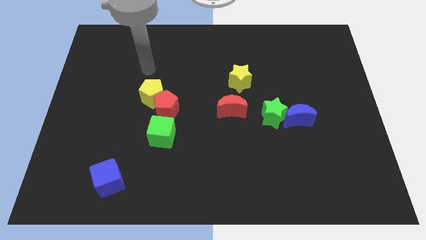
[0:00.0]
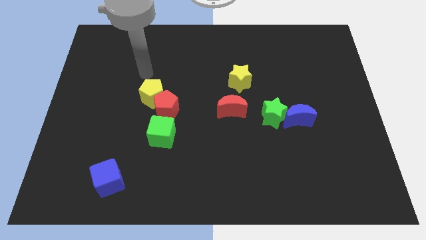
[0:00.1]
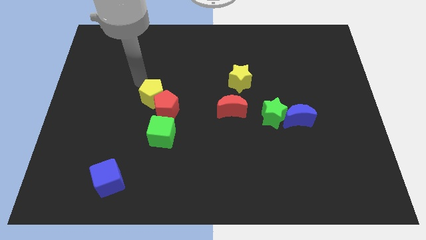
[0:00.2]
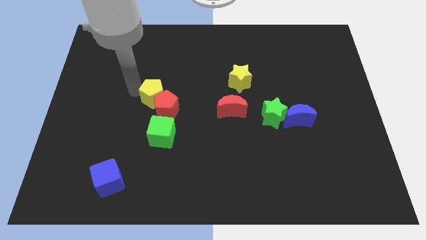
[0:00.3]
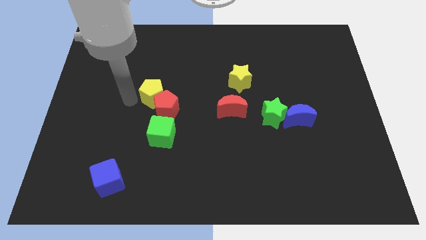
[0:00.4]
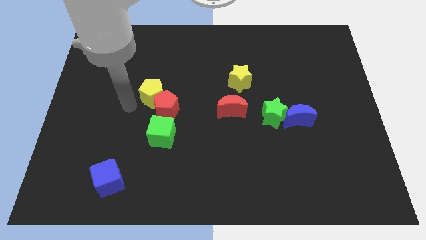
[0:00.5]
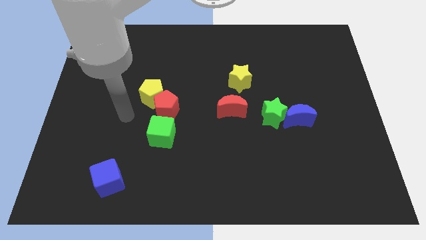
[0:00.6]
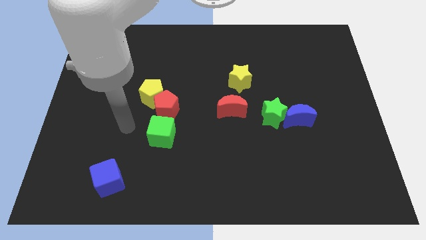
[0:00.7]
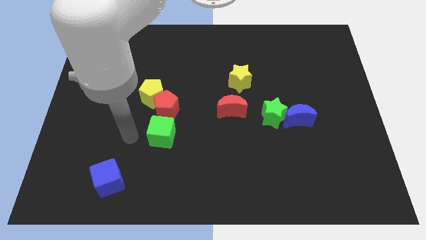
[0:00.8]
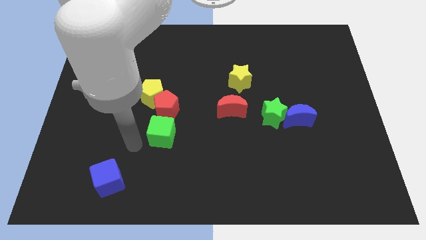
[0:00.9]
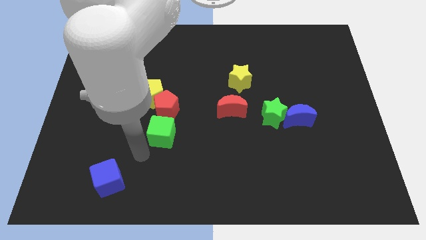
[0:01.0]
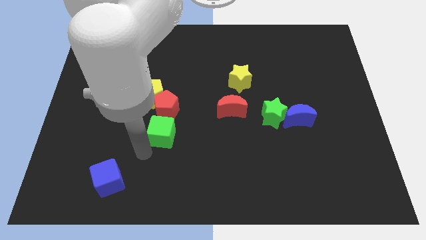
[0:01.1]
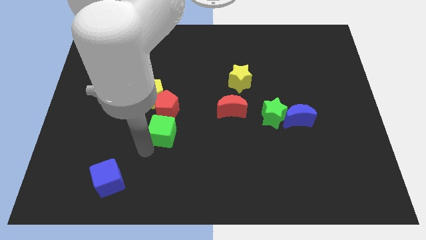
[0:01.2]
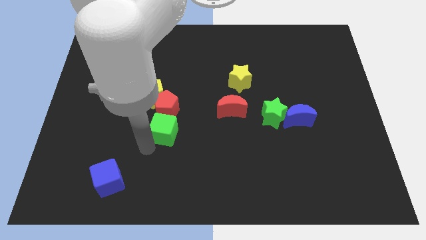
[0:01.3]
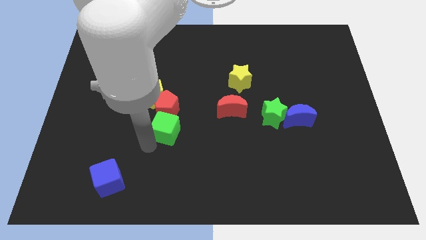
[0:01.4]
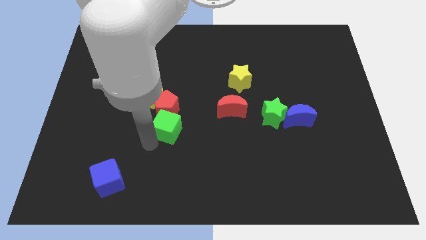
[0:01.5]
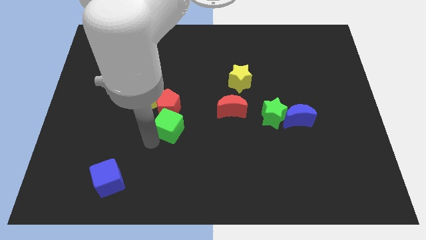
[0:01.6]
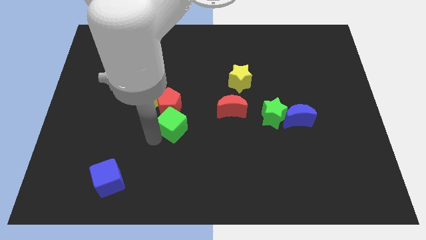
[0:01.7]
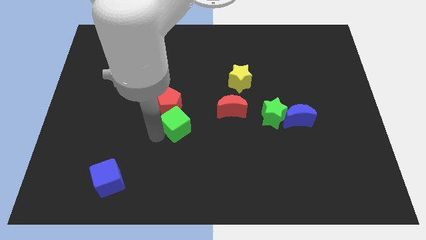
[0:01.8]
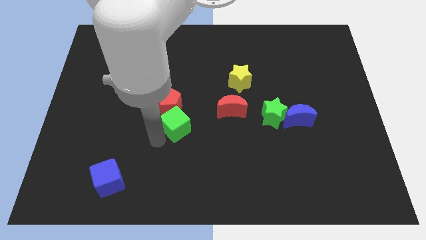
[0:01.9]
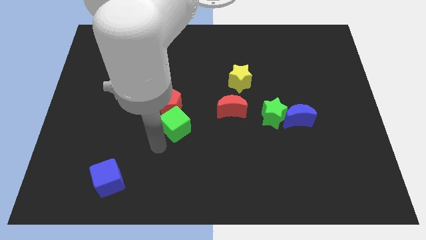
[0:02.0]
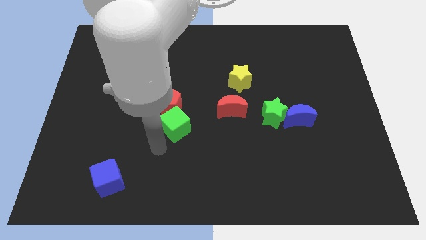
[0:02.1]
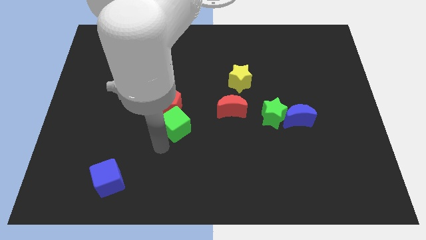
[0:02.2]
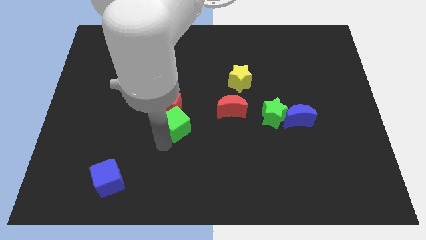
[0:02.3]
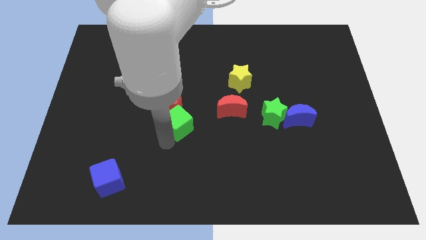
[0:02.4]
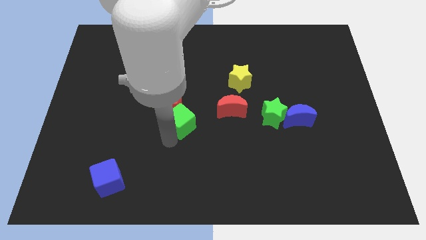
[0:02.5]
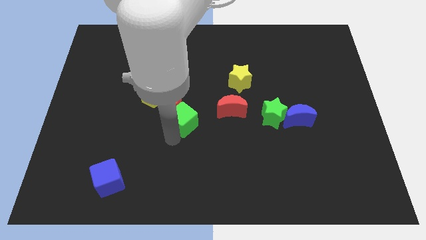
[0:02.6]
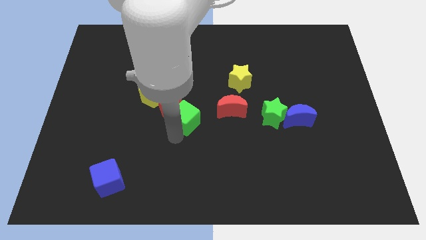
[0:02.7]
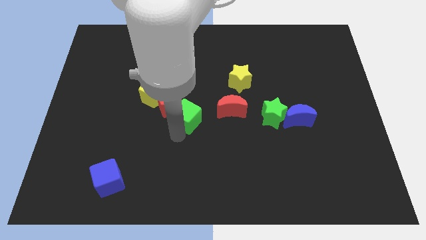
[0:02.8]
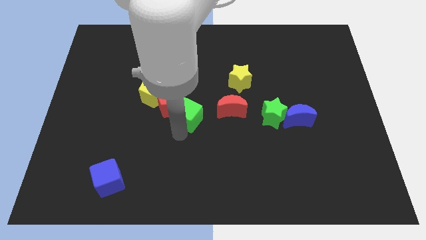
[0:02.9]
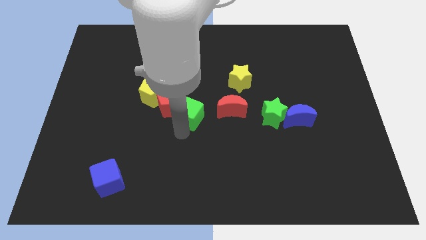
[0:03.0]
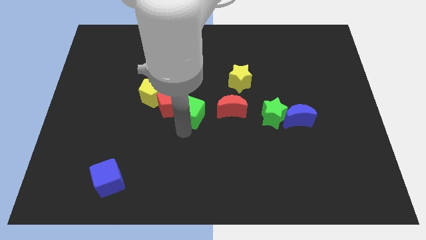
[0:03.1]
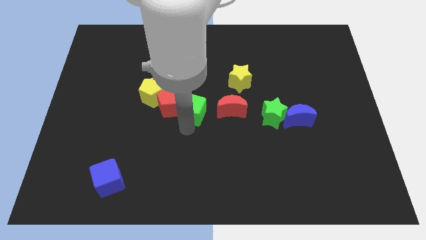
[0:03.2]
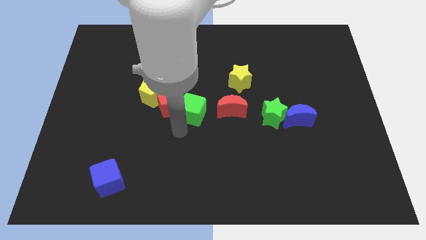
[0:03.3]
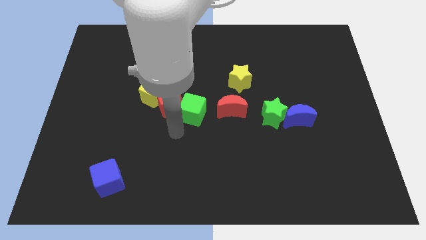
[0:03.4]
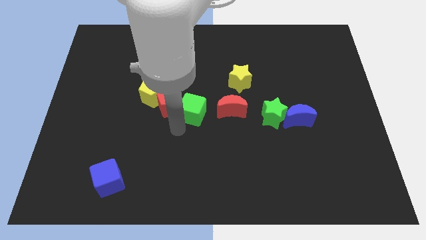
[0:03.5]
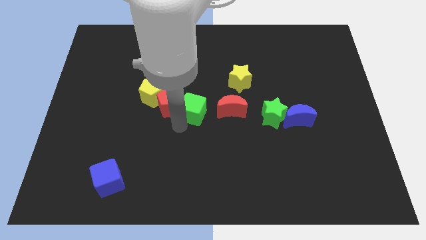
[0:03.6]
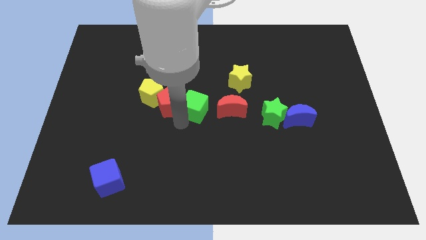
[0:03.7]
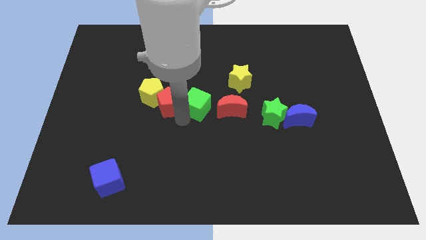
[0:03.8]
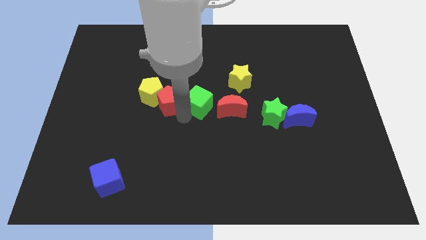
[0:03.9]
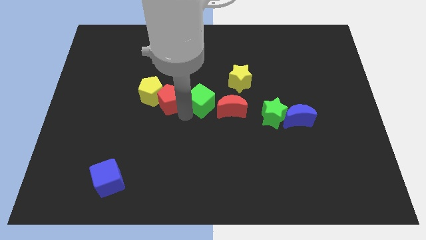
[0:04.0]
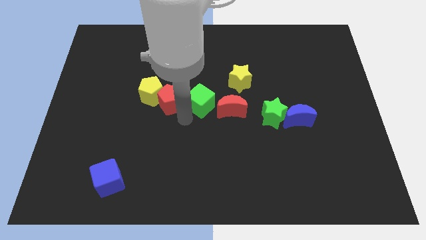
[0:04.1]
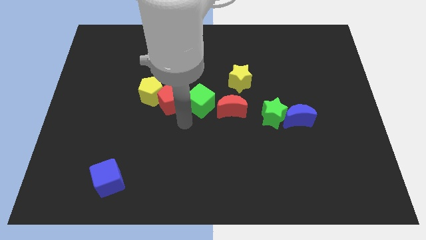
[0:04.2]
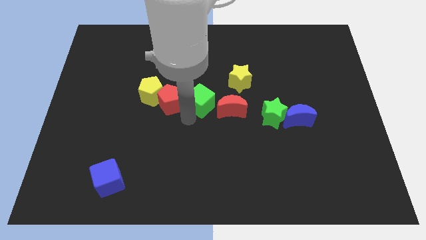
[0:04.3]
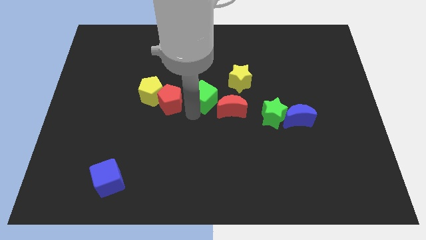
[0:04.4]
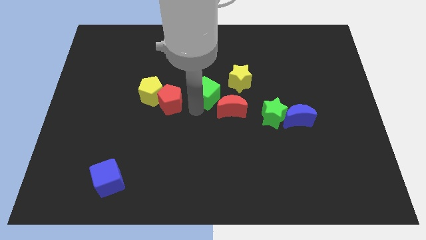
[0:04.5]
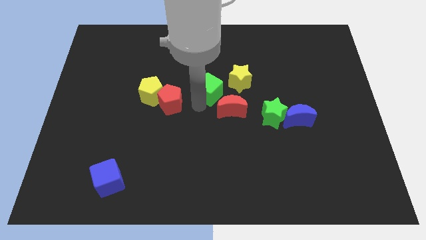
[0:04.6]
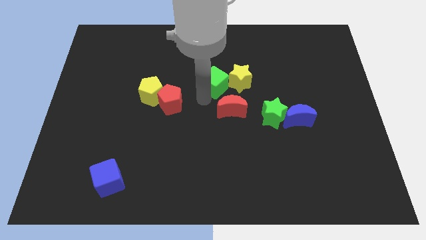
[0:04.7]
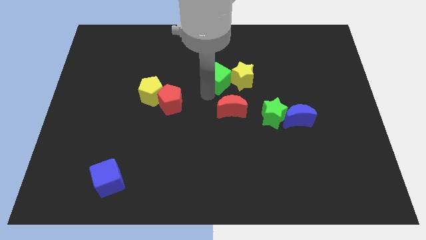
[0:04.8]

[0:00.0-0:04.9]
push the green cube up and right

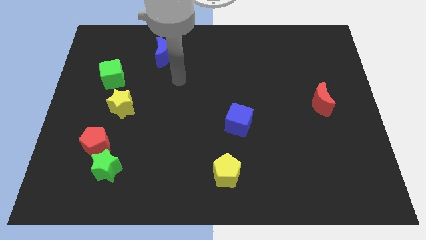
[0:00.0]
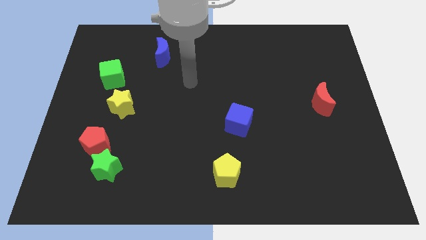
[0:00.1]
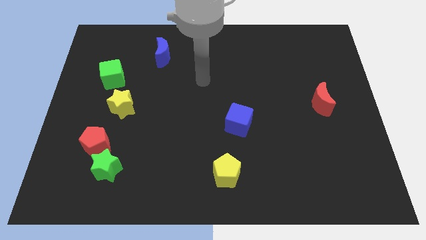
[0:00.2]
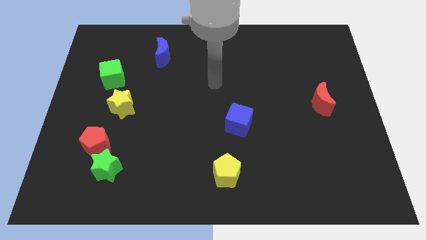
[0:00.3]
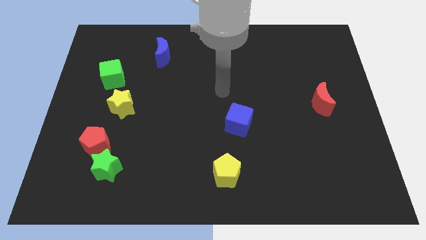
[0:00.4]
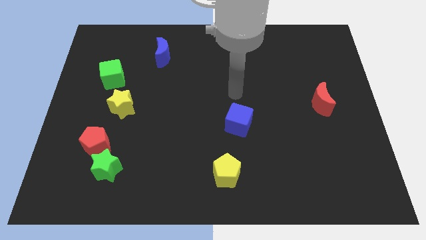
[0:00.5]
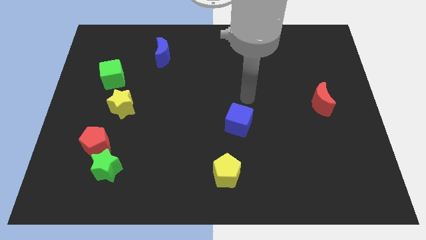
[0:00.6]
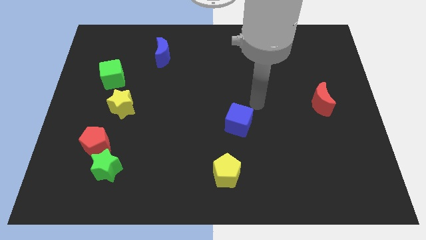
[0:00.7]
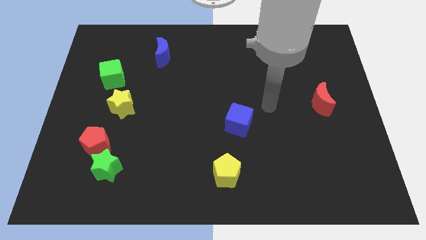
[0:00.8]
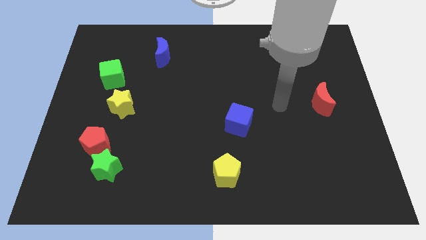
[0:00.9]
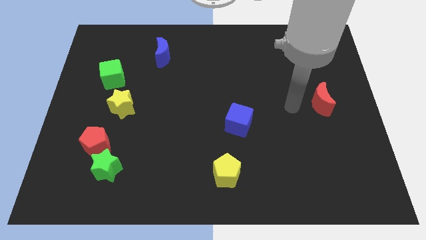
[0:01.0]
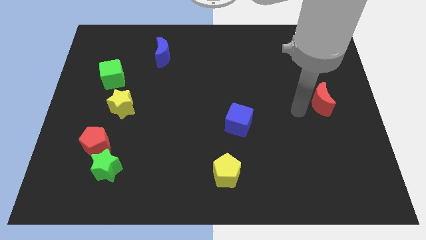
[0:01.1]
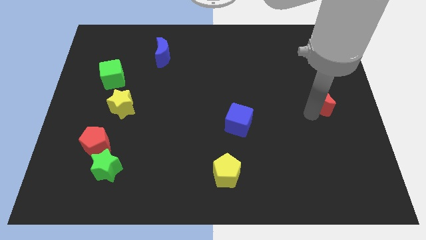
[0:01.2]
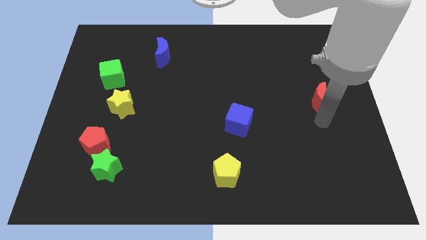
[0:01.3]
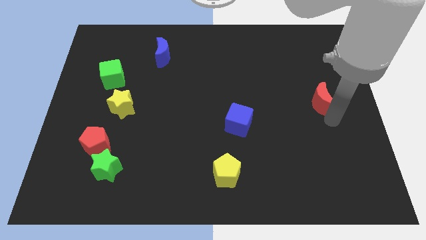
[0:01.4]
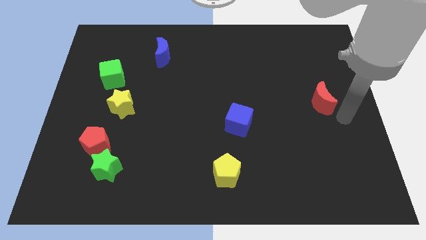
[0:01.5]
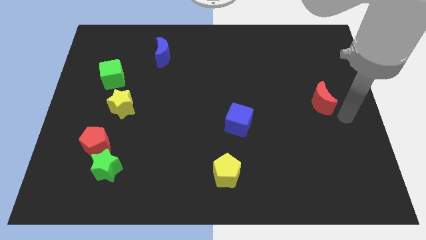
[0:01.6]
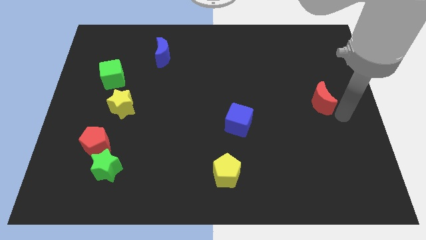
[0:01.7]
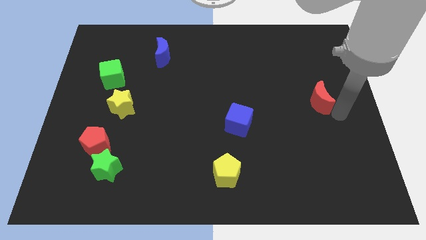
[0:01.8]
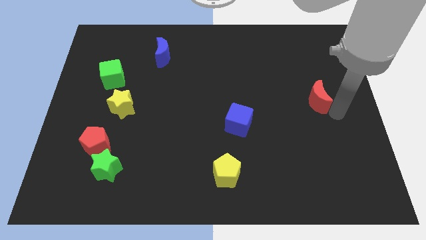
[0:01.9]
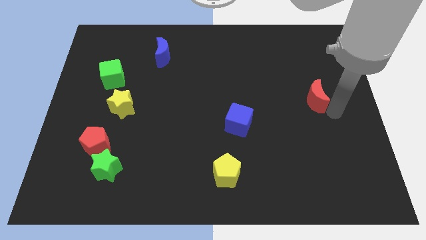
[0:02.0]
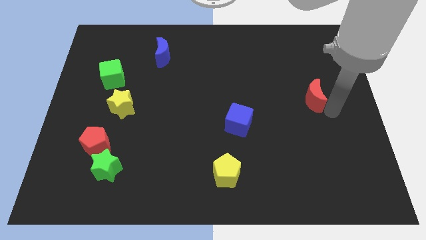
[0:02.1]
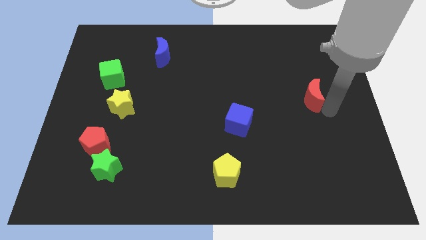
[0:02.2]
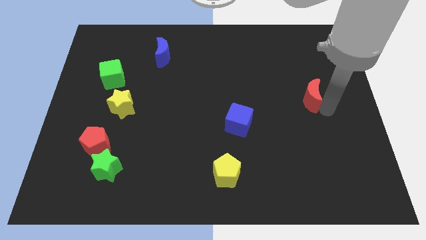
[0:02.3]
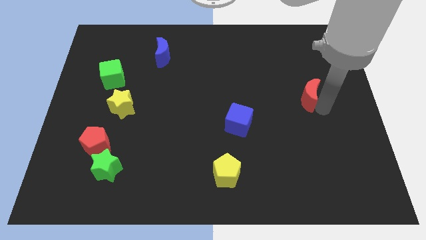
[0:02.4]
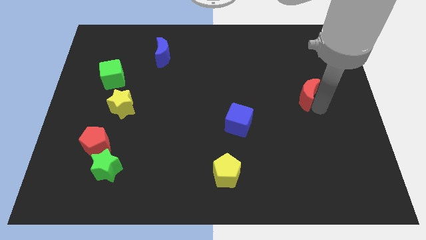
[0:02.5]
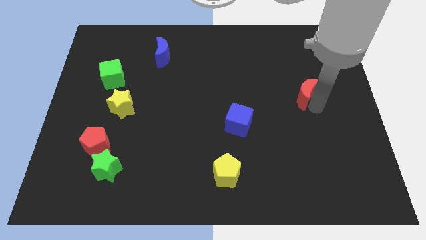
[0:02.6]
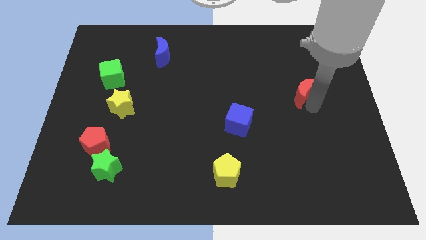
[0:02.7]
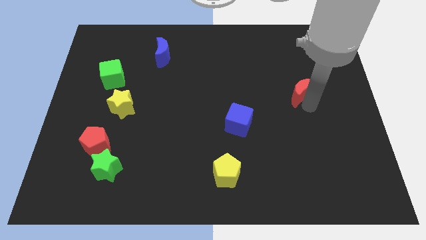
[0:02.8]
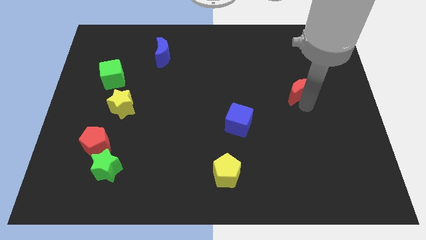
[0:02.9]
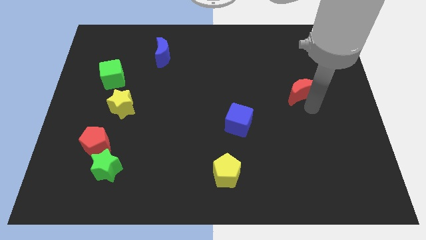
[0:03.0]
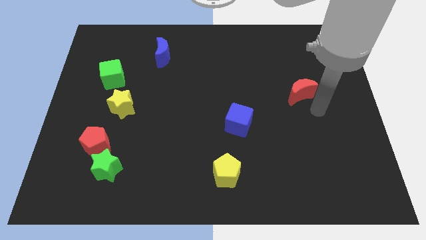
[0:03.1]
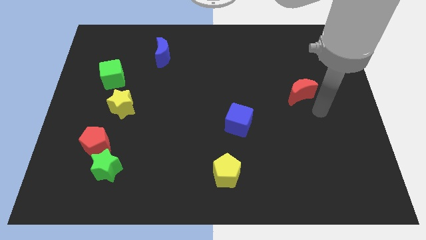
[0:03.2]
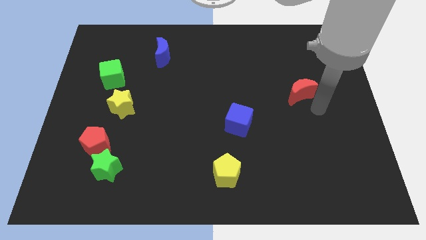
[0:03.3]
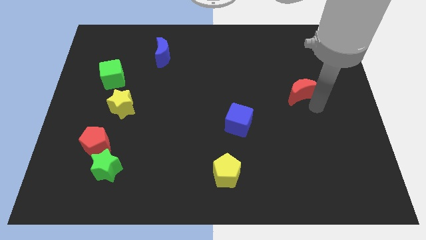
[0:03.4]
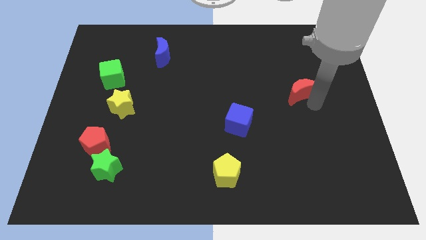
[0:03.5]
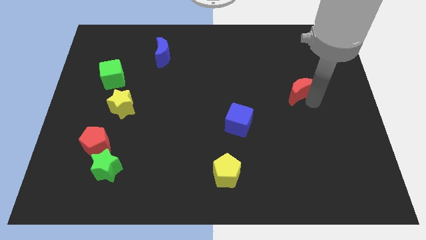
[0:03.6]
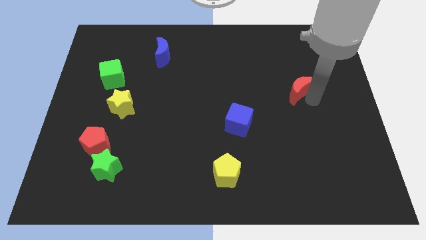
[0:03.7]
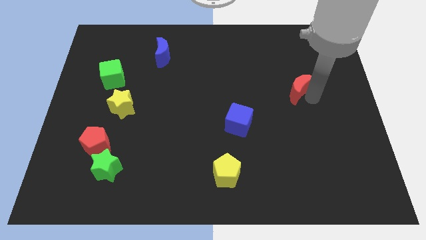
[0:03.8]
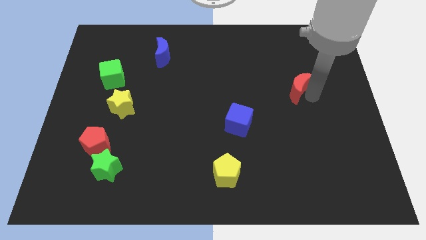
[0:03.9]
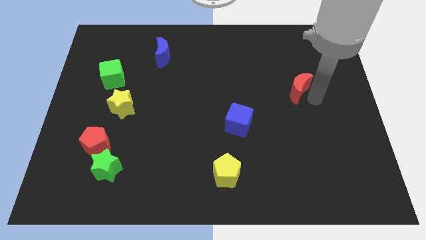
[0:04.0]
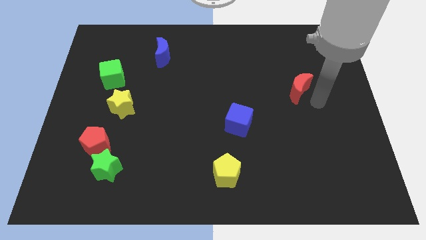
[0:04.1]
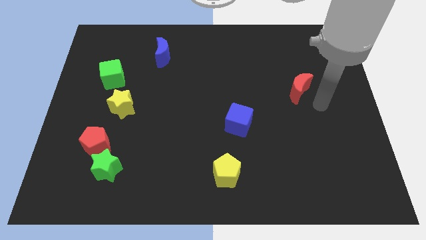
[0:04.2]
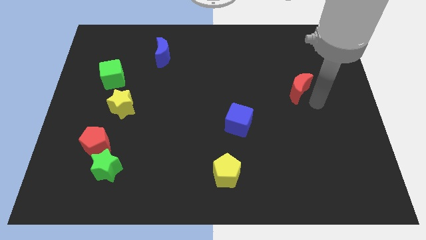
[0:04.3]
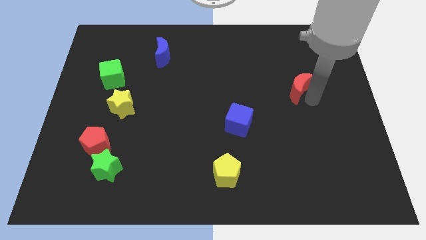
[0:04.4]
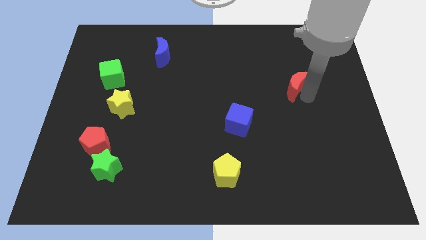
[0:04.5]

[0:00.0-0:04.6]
slightly slide the red moon up and left diagonally
